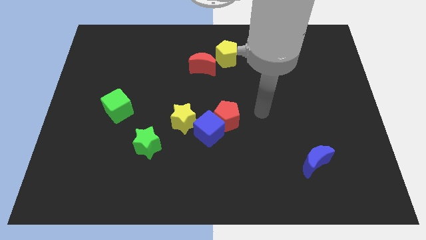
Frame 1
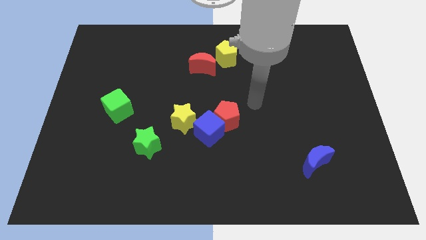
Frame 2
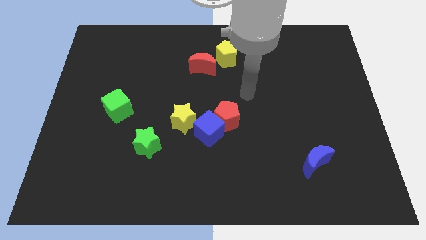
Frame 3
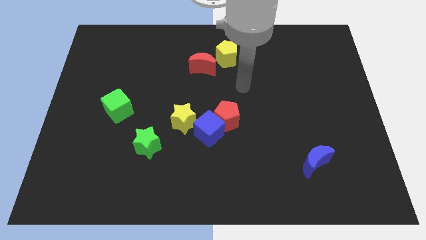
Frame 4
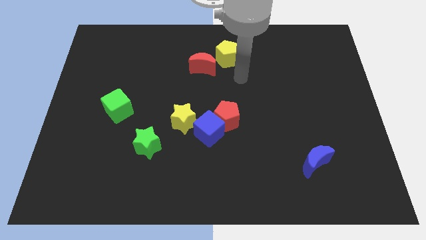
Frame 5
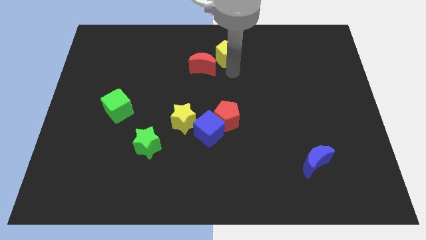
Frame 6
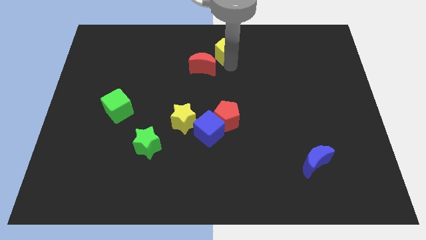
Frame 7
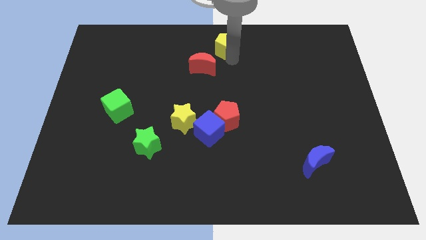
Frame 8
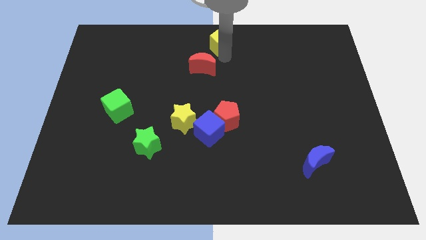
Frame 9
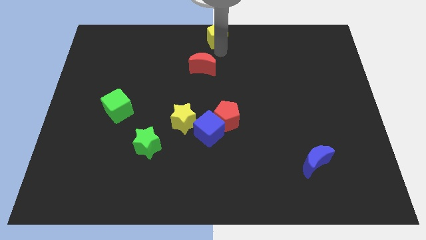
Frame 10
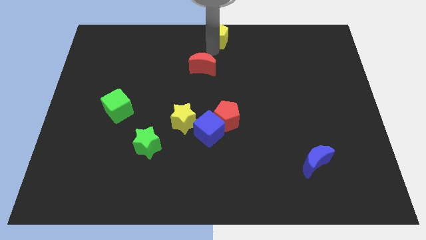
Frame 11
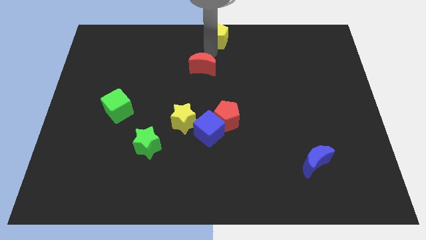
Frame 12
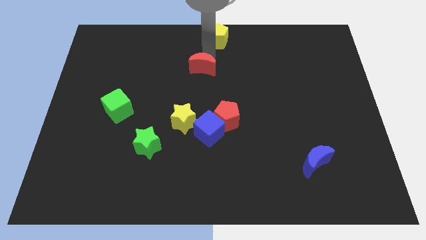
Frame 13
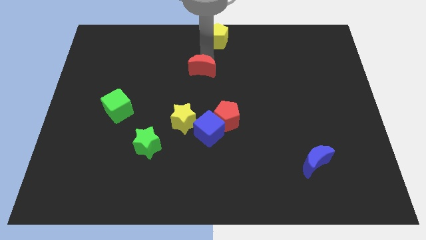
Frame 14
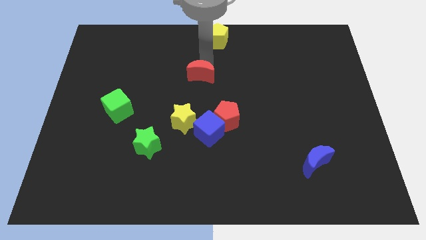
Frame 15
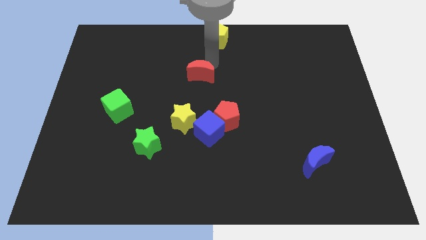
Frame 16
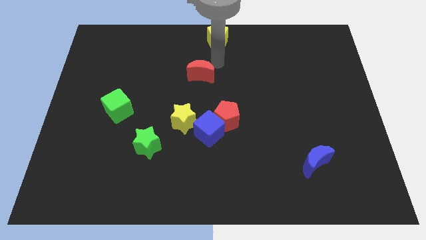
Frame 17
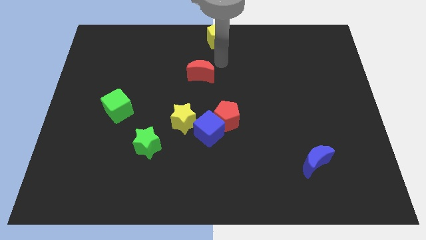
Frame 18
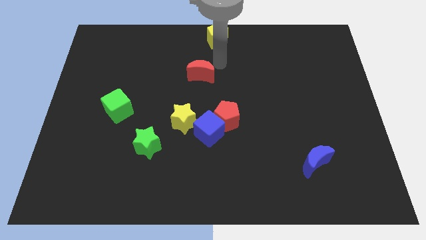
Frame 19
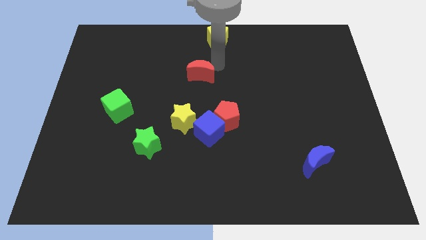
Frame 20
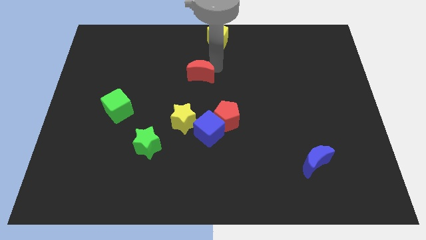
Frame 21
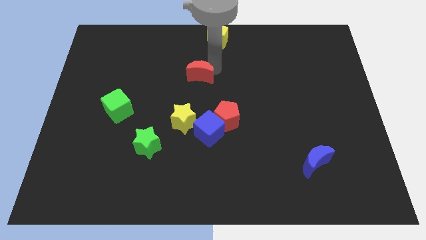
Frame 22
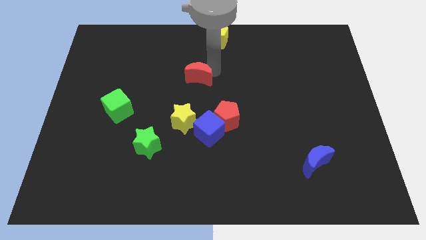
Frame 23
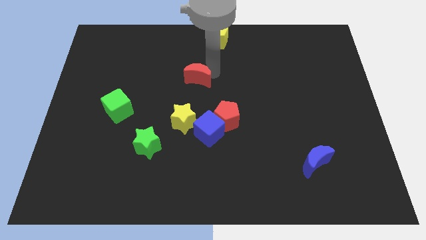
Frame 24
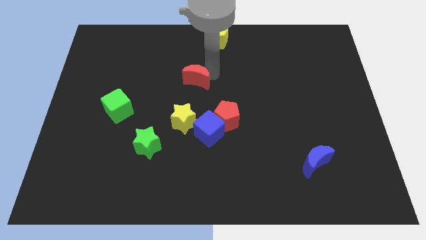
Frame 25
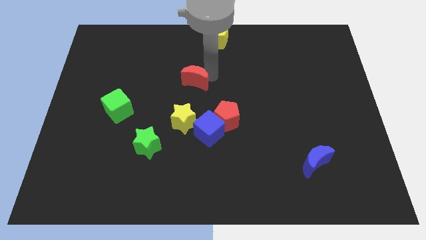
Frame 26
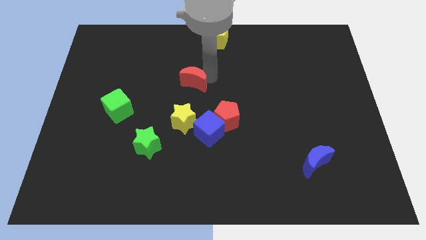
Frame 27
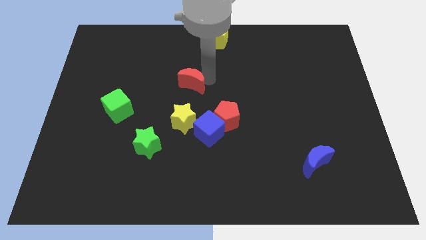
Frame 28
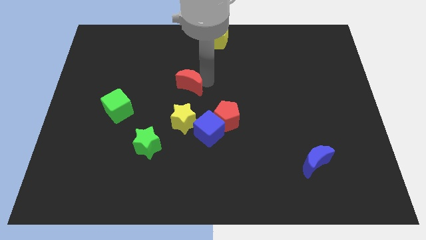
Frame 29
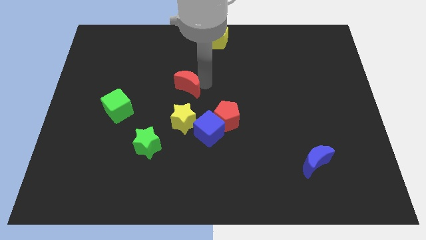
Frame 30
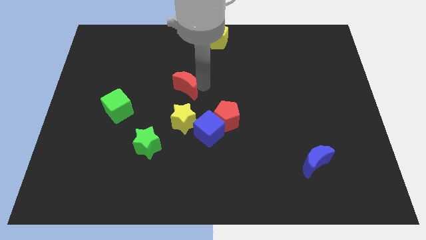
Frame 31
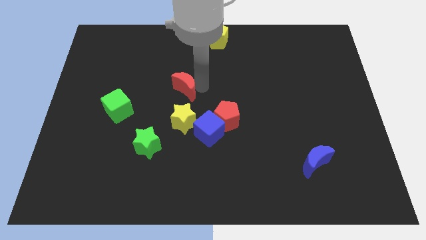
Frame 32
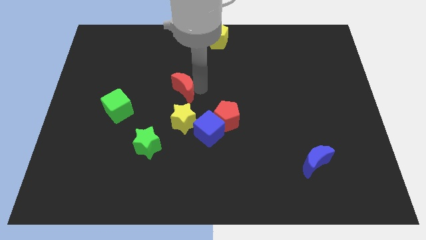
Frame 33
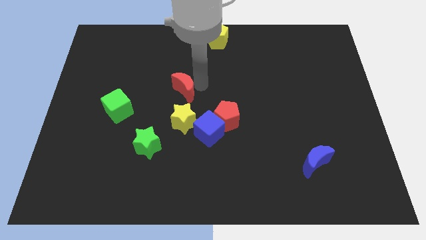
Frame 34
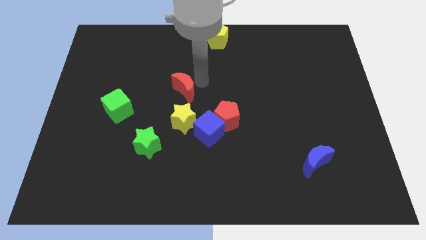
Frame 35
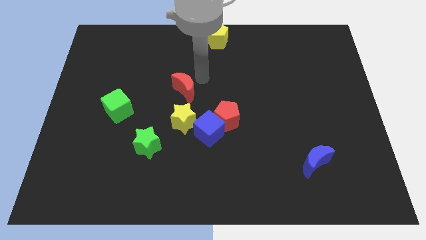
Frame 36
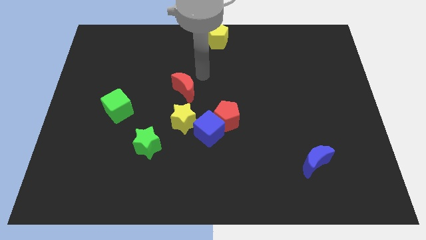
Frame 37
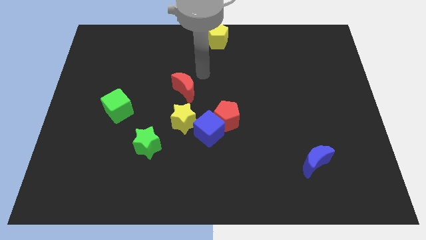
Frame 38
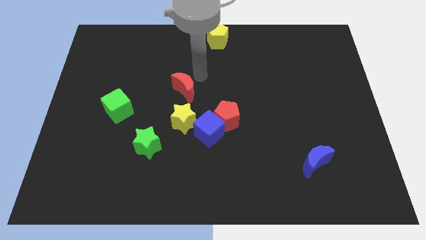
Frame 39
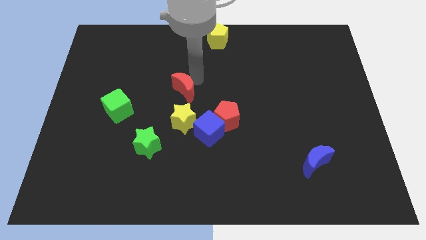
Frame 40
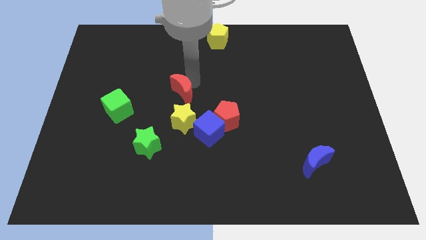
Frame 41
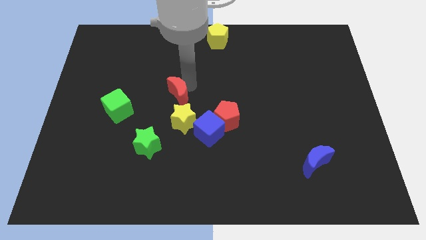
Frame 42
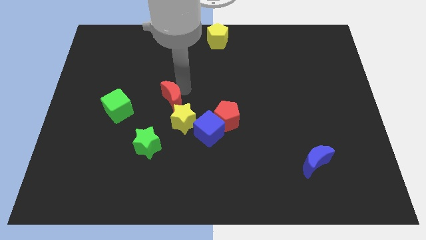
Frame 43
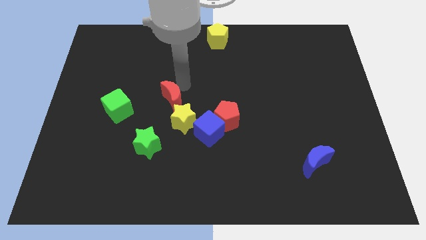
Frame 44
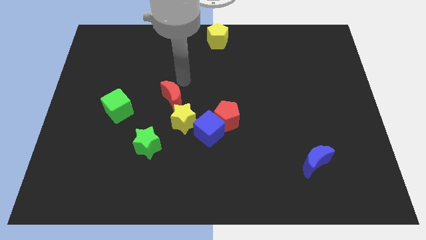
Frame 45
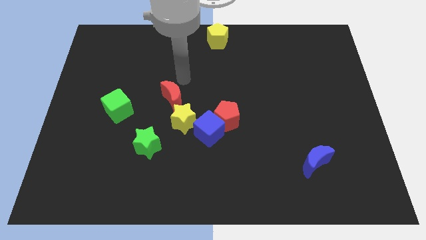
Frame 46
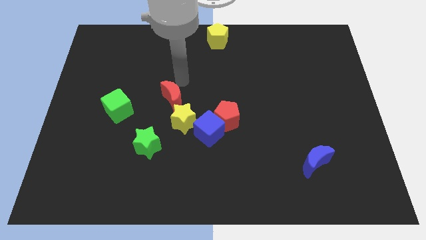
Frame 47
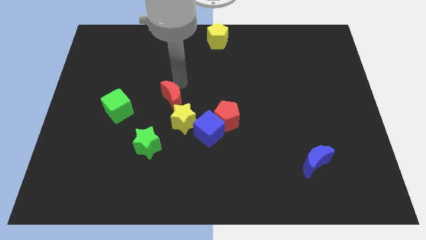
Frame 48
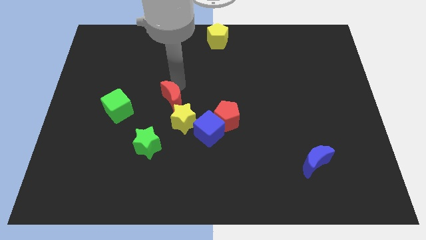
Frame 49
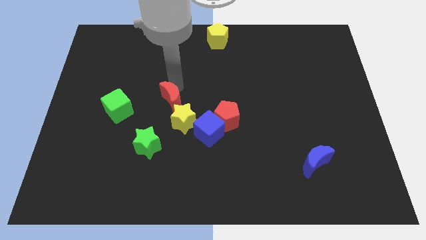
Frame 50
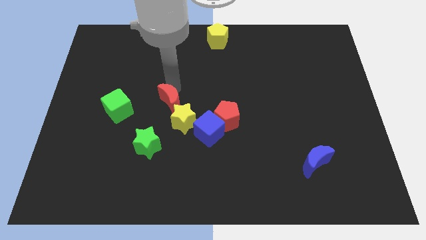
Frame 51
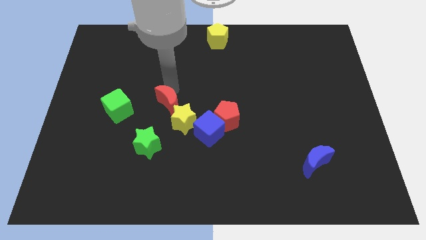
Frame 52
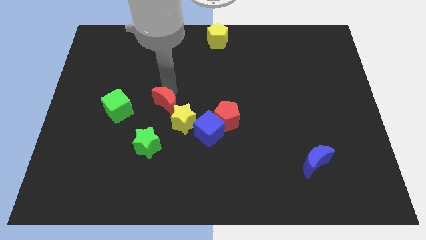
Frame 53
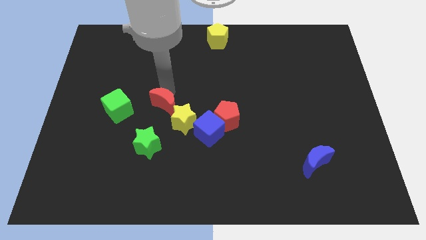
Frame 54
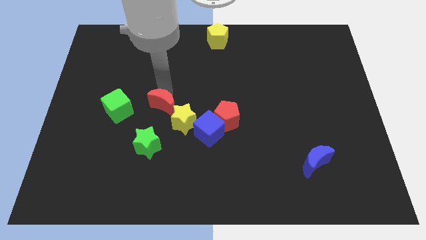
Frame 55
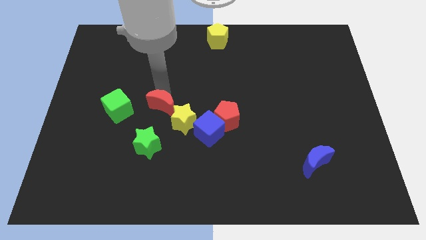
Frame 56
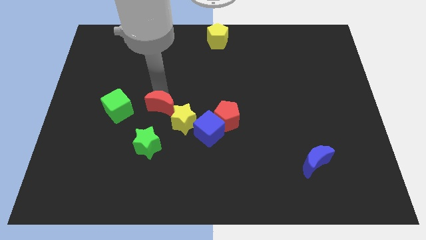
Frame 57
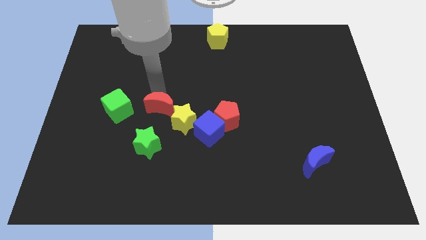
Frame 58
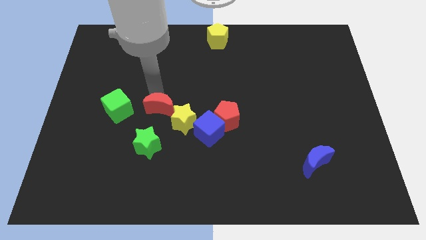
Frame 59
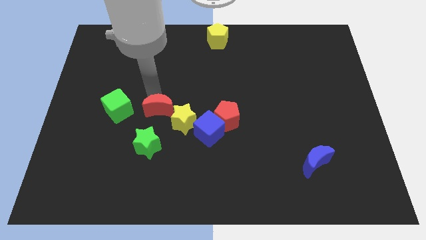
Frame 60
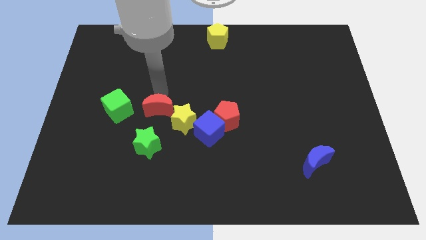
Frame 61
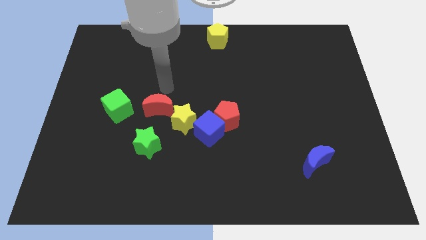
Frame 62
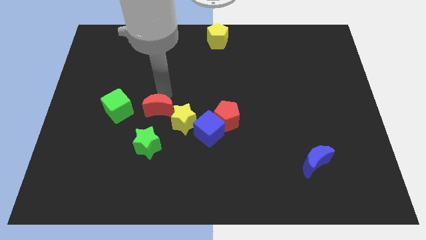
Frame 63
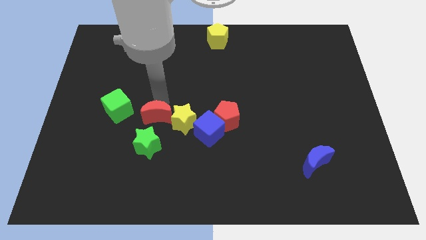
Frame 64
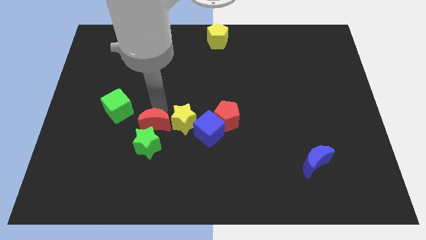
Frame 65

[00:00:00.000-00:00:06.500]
move the red moon next to the green star

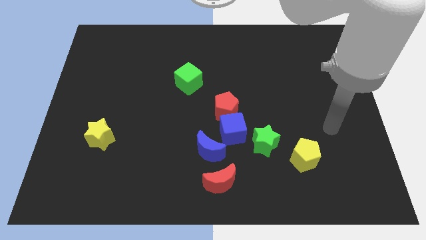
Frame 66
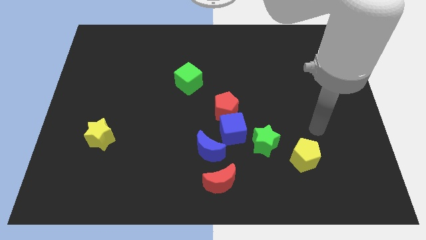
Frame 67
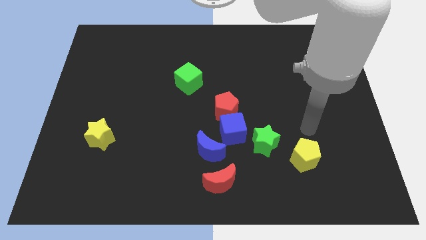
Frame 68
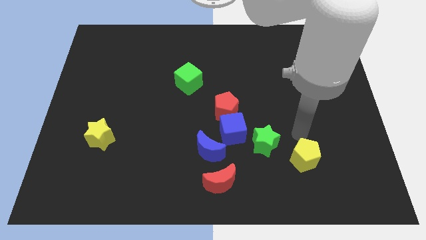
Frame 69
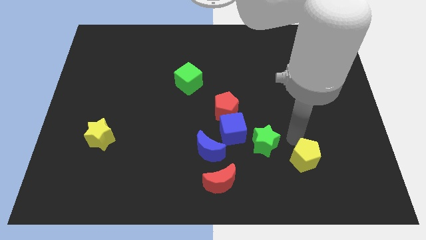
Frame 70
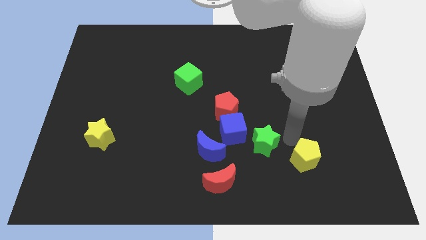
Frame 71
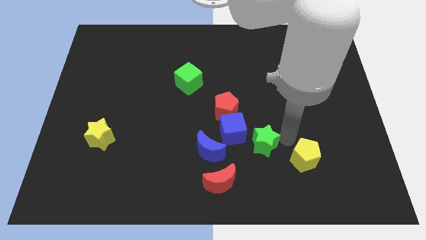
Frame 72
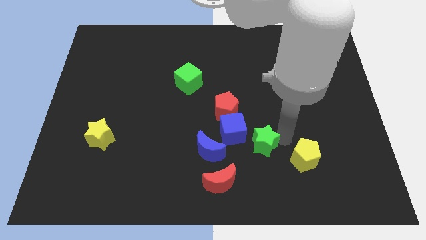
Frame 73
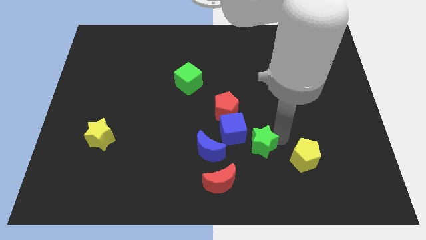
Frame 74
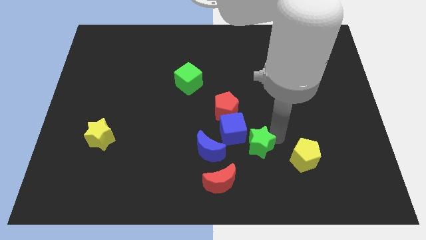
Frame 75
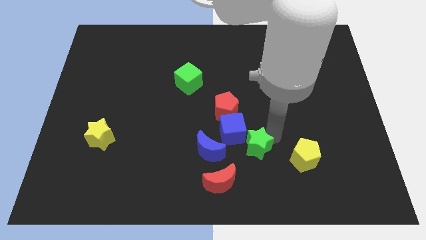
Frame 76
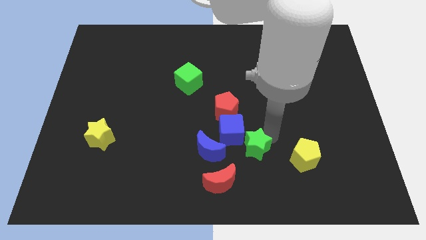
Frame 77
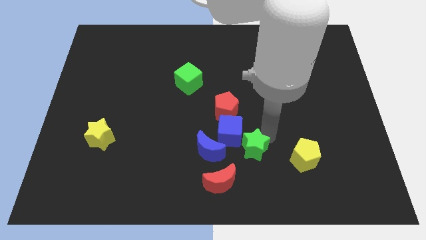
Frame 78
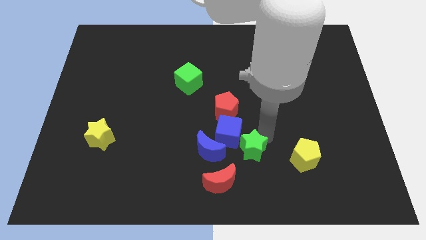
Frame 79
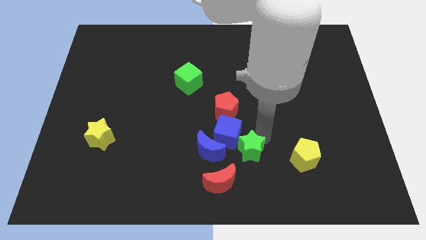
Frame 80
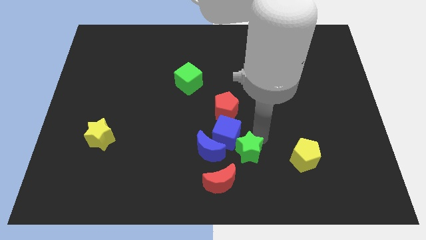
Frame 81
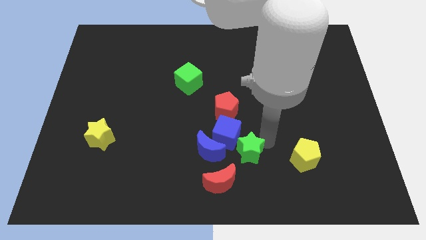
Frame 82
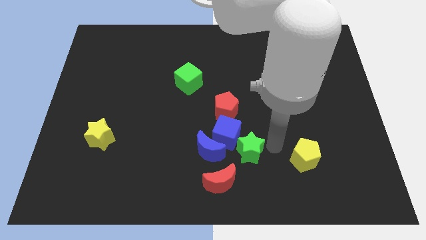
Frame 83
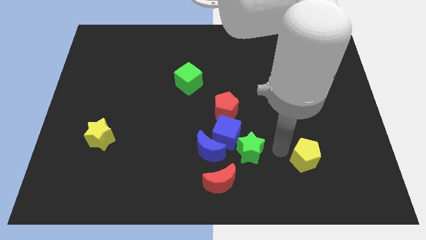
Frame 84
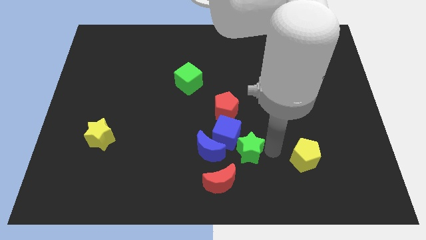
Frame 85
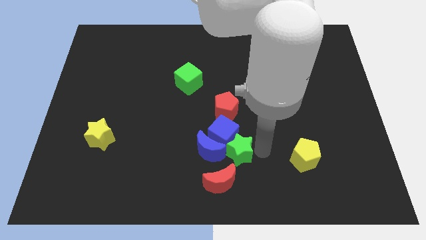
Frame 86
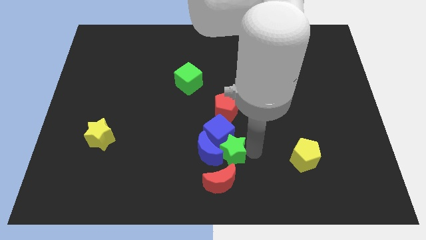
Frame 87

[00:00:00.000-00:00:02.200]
push the green star to the blue moon
